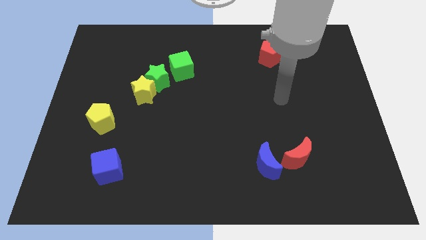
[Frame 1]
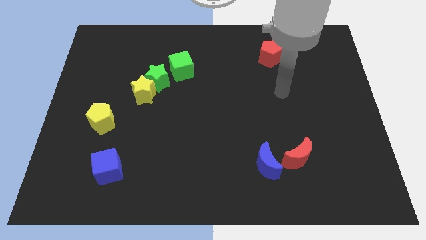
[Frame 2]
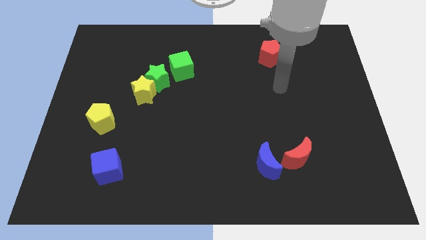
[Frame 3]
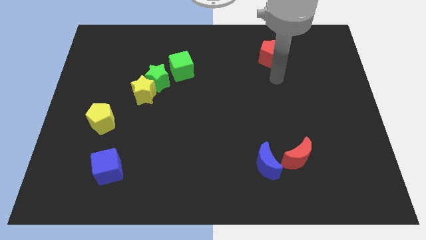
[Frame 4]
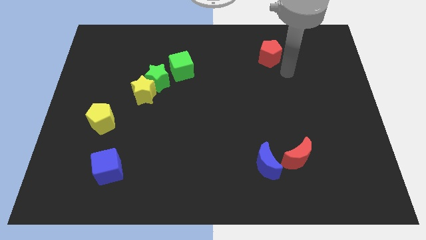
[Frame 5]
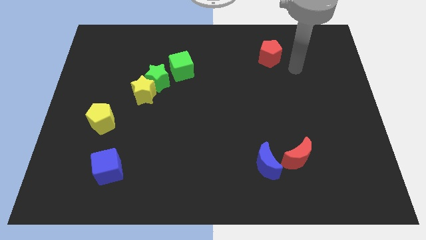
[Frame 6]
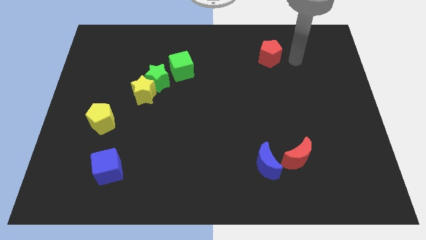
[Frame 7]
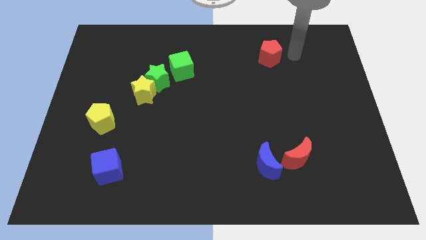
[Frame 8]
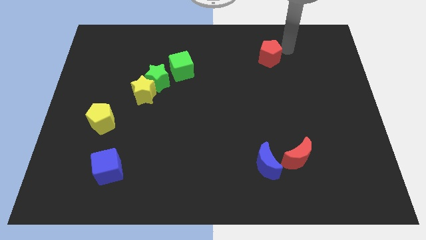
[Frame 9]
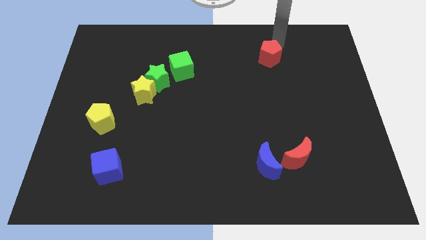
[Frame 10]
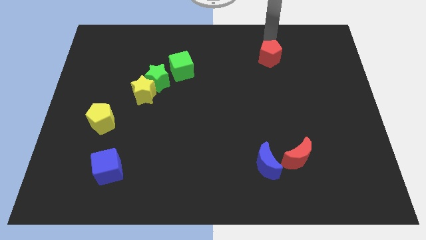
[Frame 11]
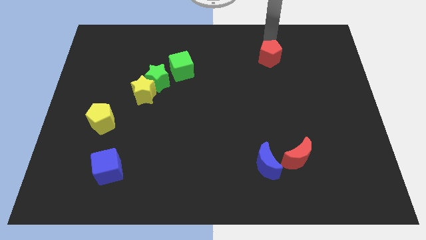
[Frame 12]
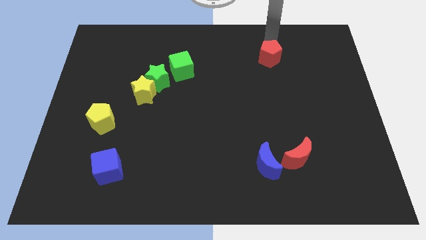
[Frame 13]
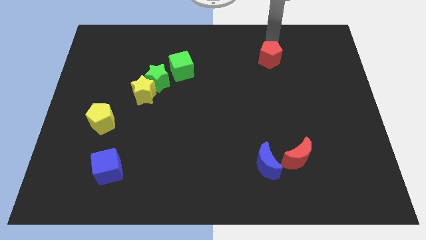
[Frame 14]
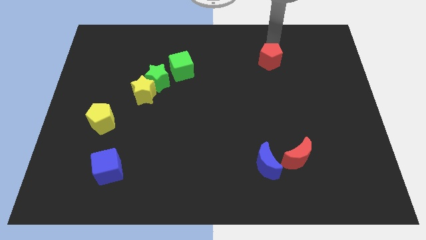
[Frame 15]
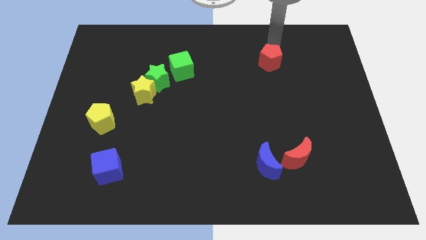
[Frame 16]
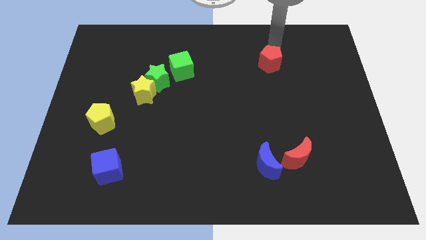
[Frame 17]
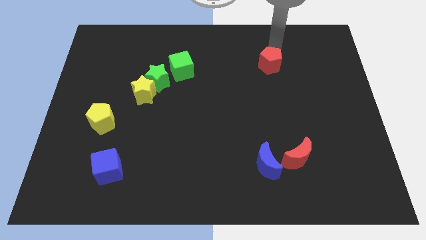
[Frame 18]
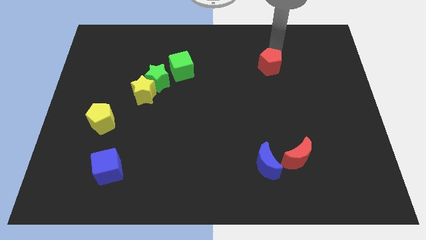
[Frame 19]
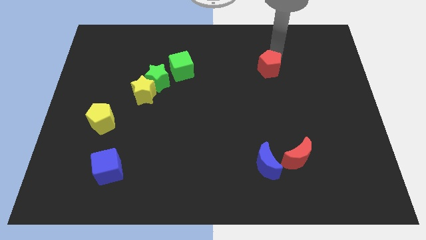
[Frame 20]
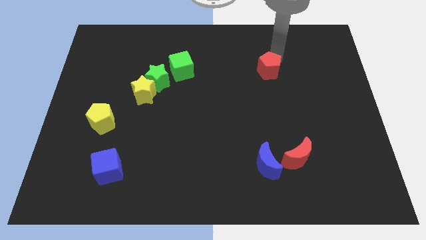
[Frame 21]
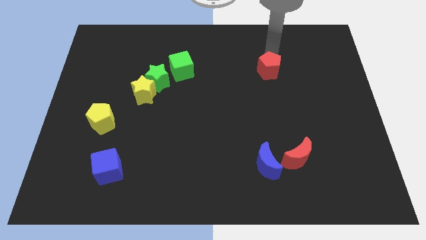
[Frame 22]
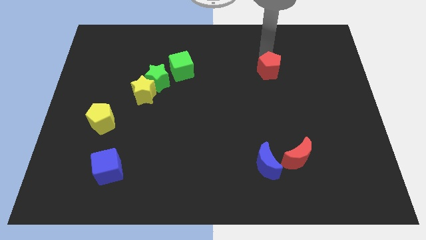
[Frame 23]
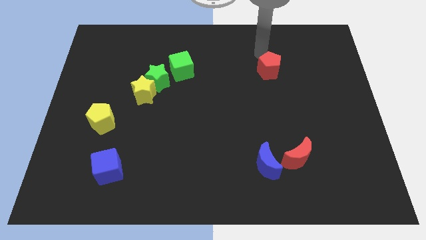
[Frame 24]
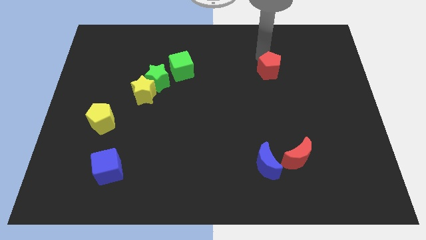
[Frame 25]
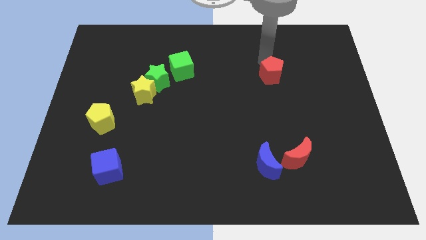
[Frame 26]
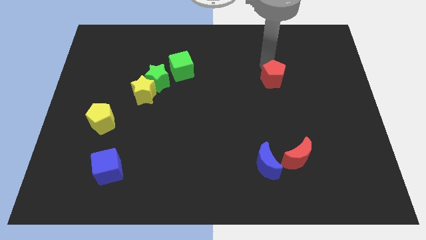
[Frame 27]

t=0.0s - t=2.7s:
push the red pentagon down a little

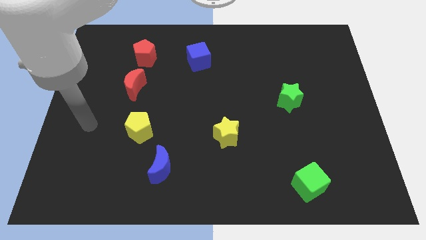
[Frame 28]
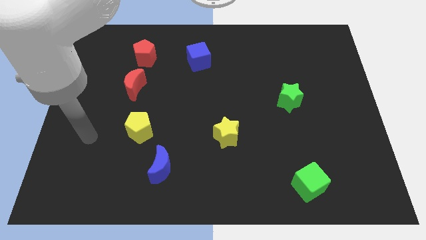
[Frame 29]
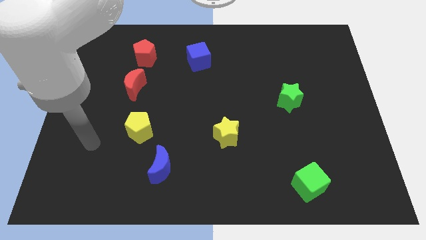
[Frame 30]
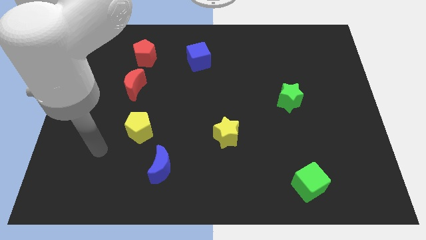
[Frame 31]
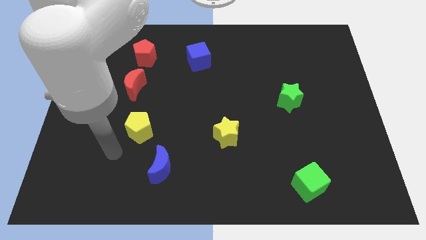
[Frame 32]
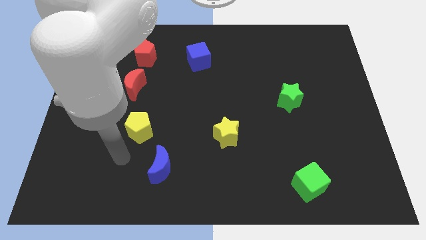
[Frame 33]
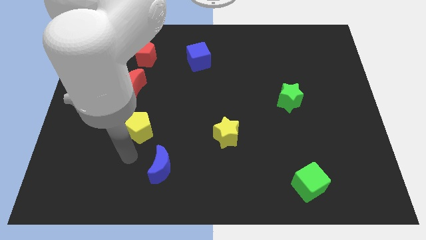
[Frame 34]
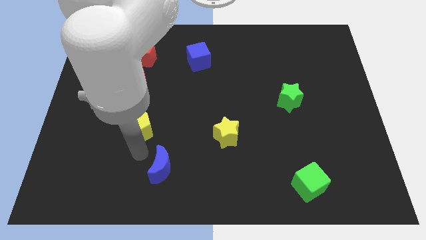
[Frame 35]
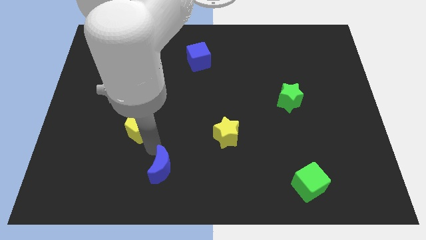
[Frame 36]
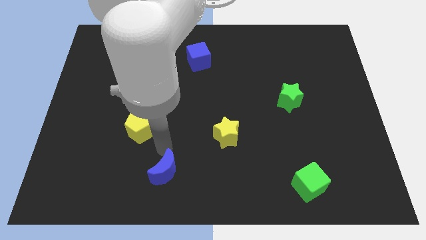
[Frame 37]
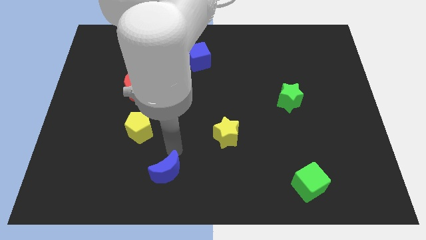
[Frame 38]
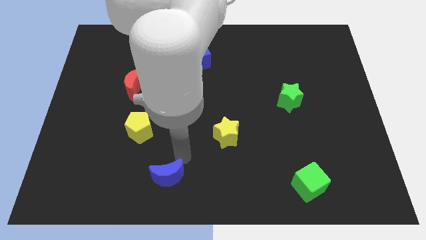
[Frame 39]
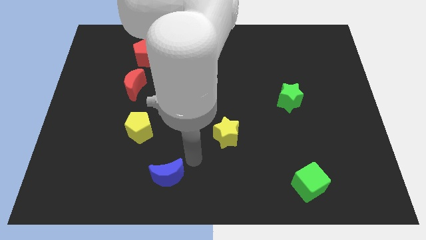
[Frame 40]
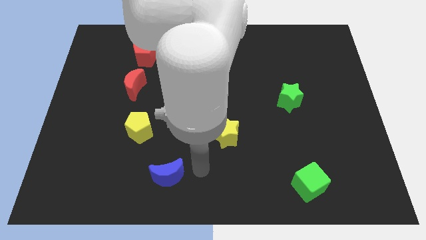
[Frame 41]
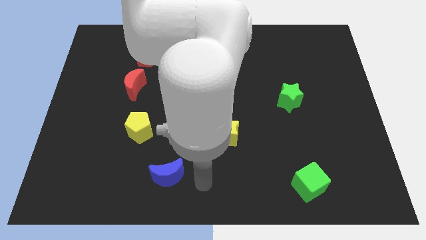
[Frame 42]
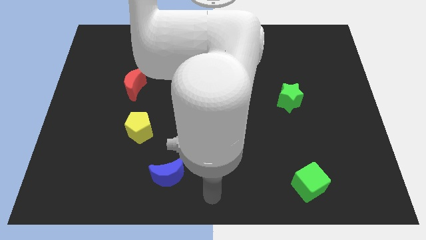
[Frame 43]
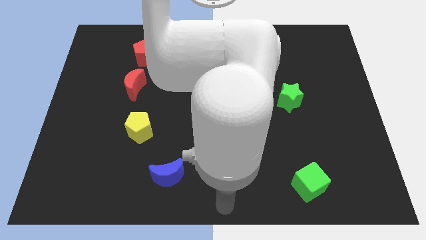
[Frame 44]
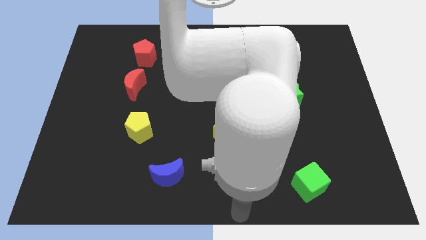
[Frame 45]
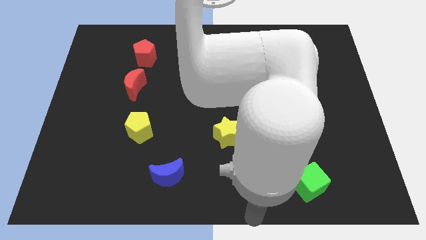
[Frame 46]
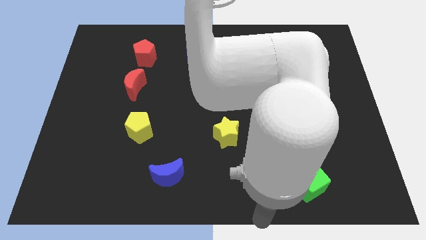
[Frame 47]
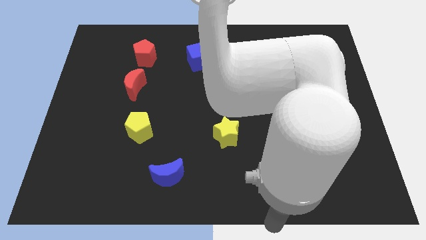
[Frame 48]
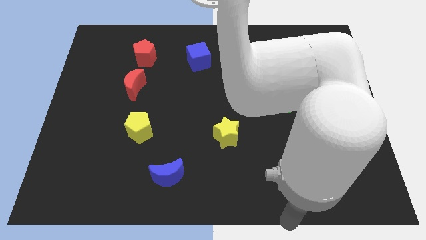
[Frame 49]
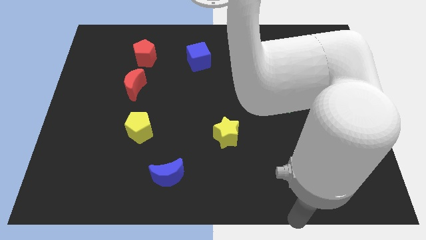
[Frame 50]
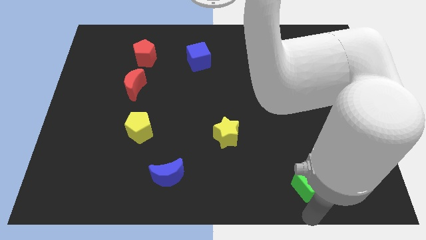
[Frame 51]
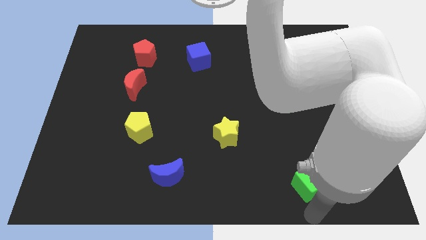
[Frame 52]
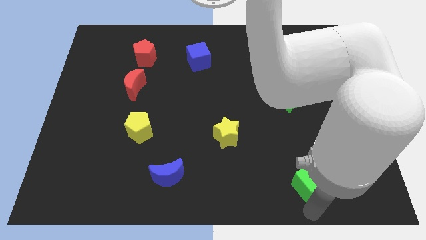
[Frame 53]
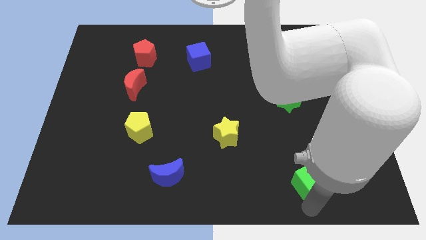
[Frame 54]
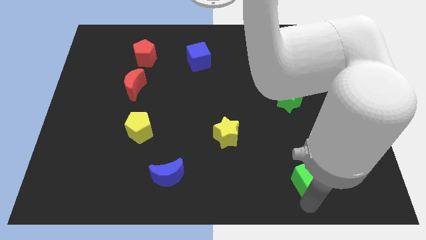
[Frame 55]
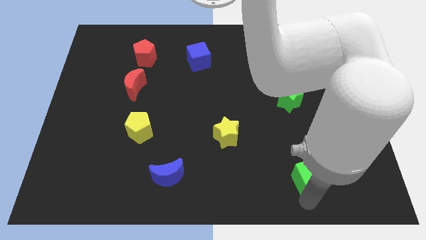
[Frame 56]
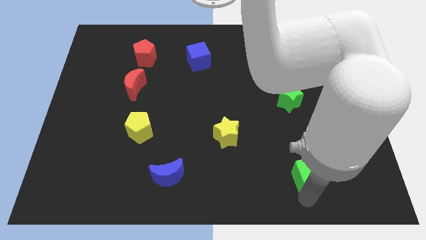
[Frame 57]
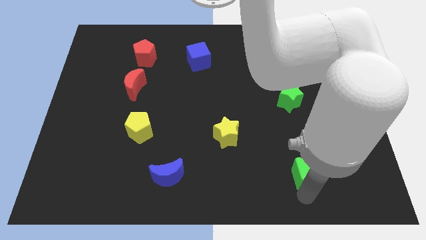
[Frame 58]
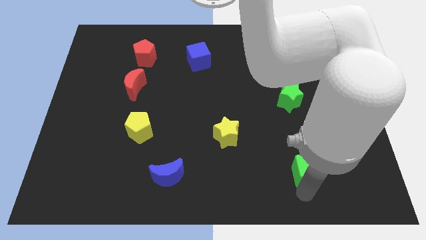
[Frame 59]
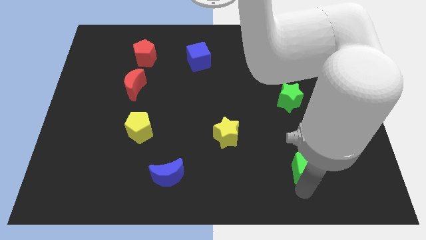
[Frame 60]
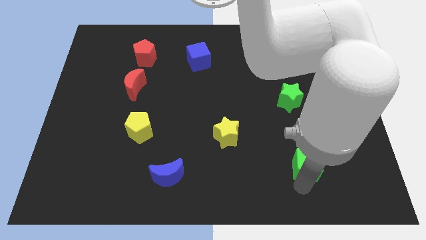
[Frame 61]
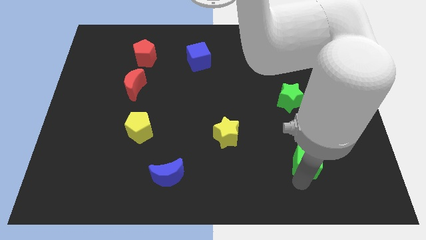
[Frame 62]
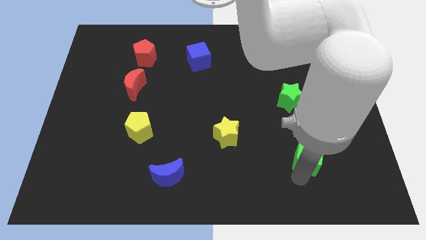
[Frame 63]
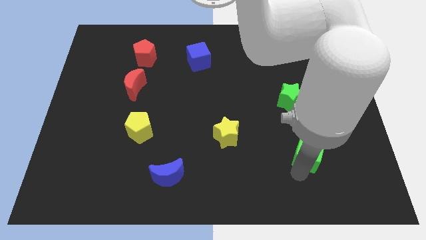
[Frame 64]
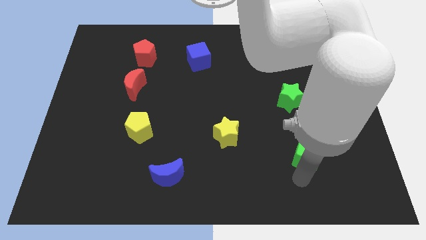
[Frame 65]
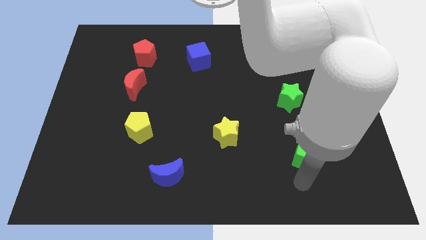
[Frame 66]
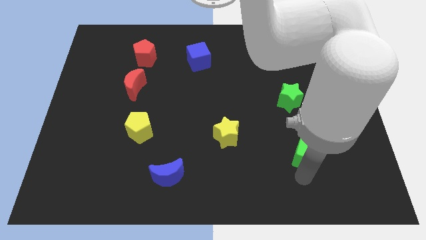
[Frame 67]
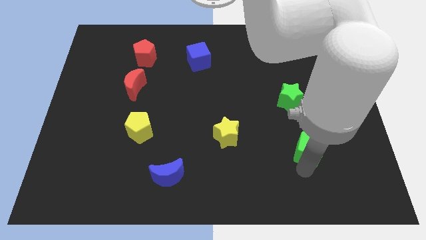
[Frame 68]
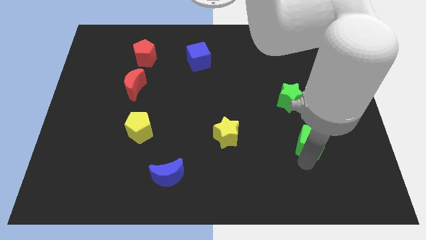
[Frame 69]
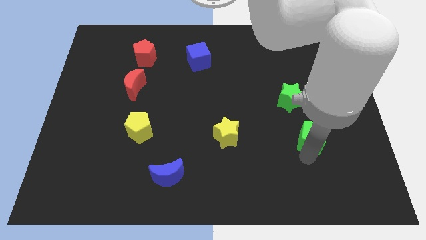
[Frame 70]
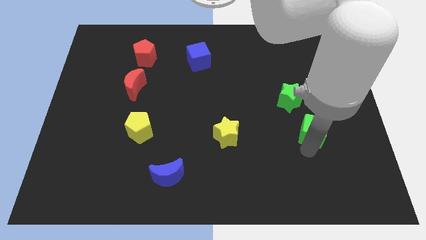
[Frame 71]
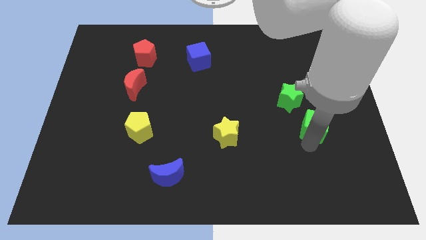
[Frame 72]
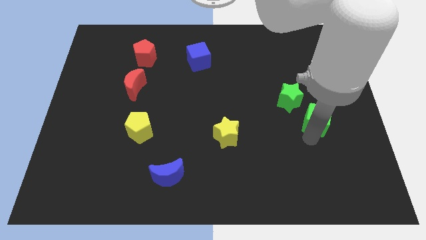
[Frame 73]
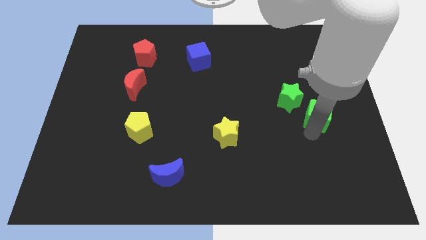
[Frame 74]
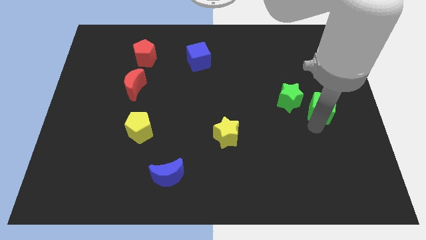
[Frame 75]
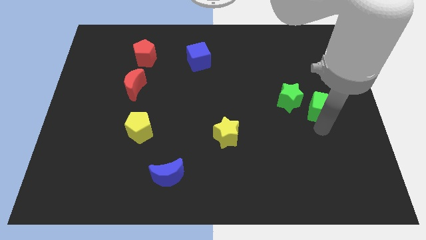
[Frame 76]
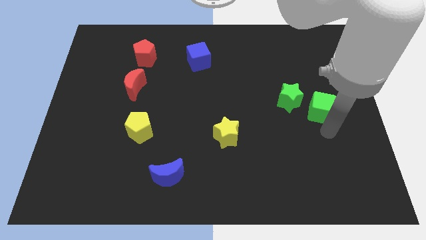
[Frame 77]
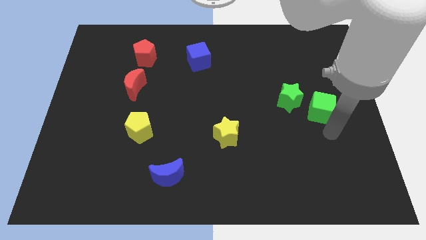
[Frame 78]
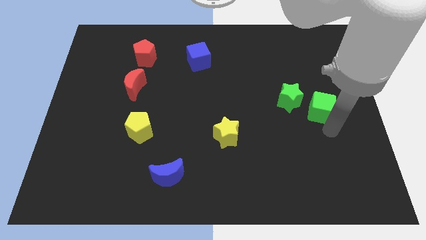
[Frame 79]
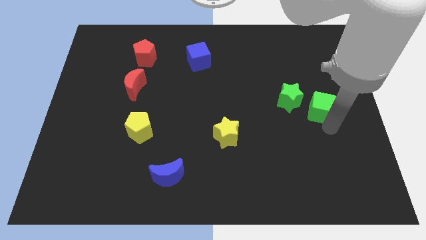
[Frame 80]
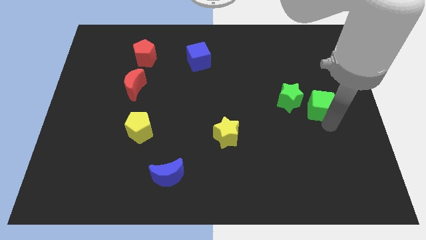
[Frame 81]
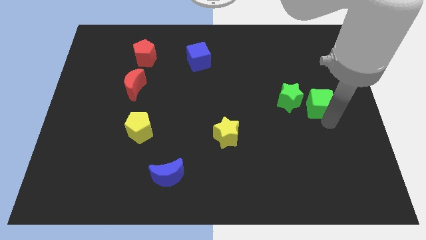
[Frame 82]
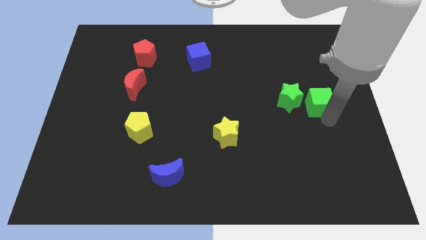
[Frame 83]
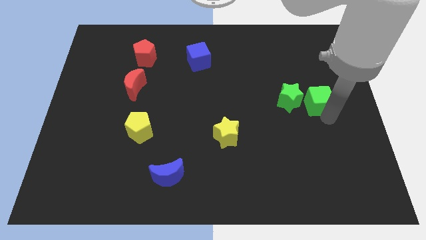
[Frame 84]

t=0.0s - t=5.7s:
push the green cube upwards

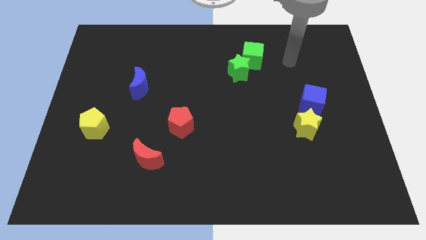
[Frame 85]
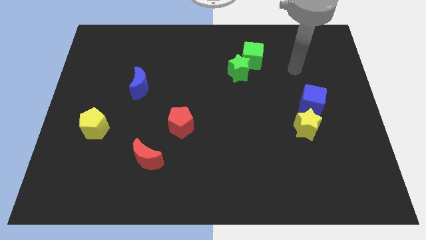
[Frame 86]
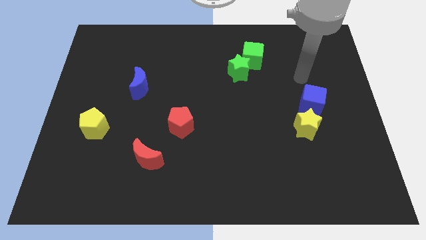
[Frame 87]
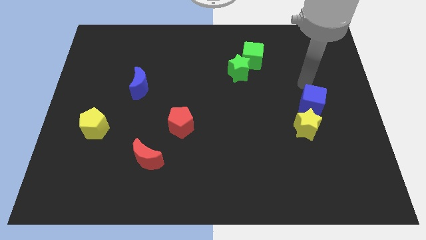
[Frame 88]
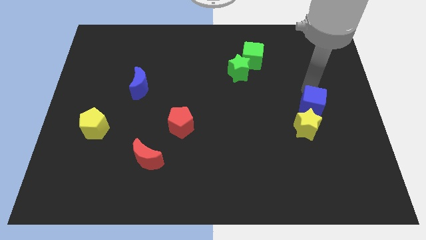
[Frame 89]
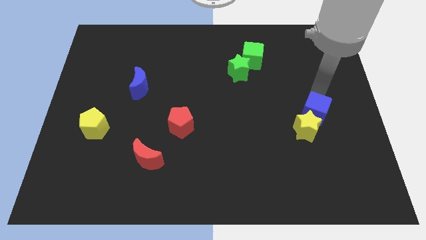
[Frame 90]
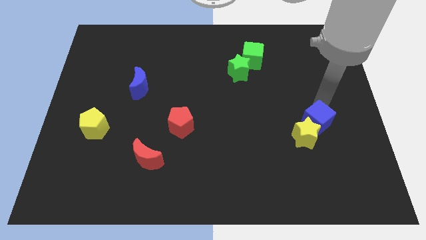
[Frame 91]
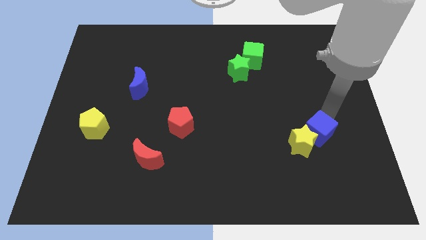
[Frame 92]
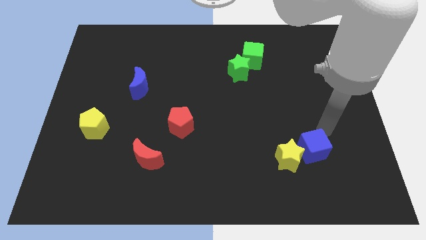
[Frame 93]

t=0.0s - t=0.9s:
move the yellow star down and then to the left a bit
